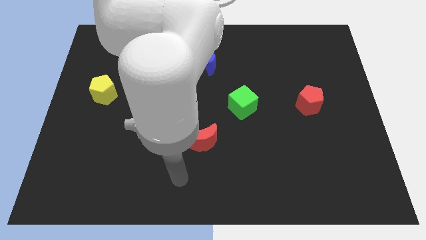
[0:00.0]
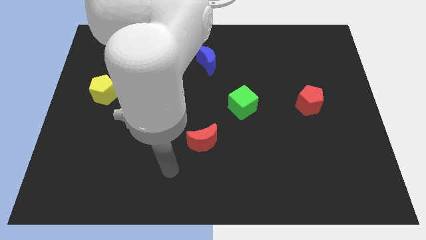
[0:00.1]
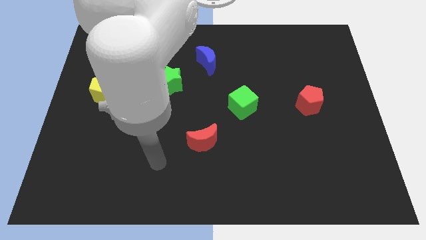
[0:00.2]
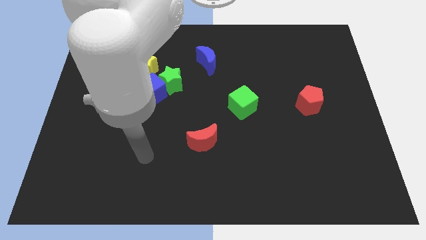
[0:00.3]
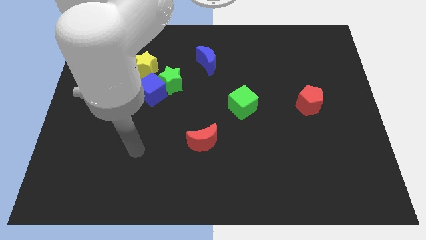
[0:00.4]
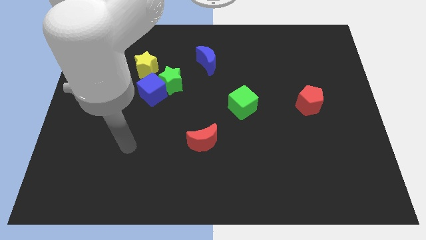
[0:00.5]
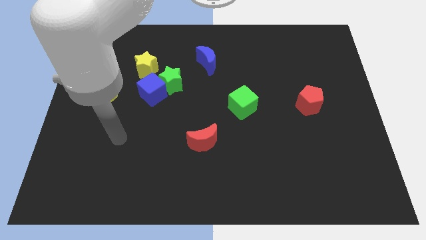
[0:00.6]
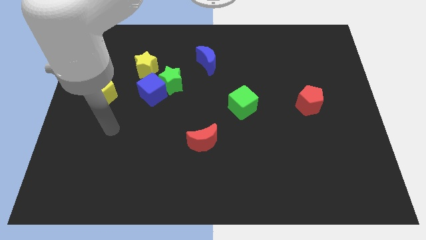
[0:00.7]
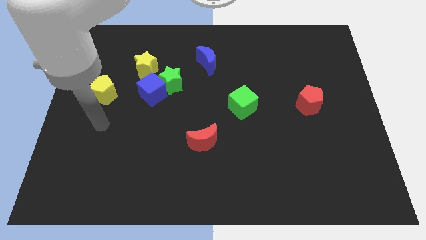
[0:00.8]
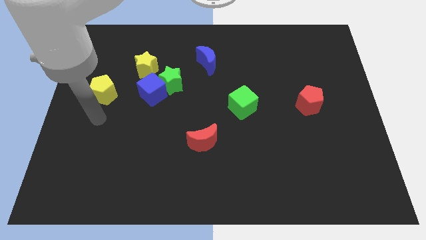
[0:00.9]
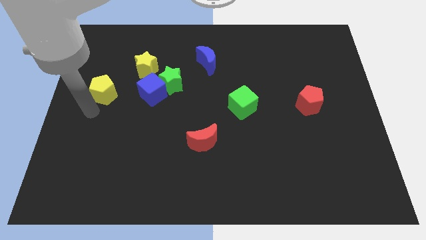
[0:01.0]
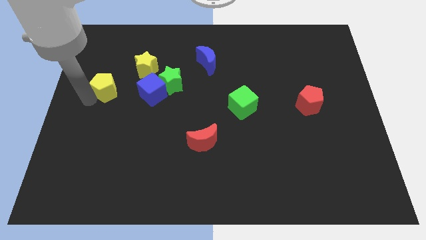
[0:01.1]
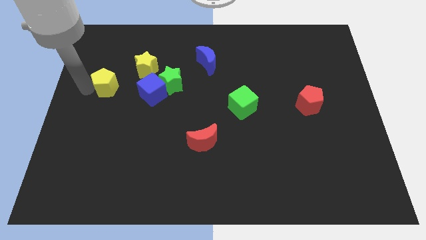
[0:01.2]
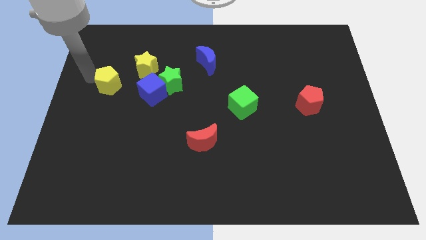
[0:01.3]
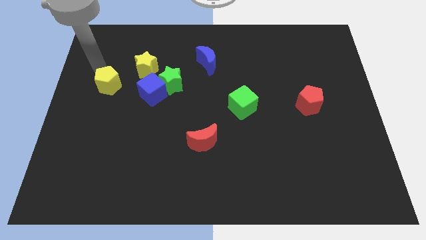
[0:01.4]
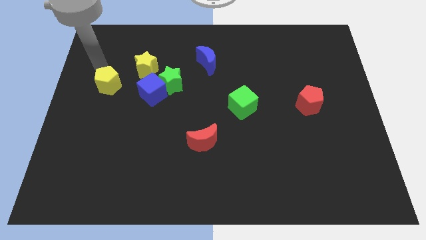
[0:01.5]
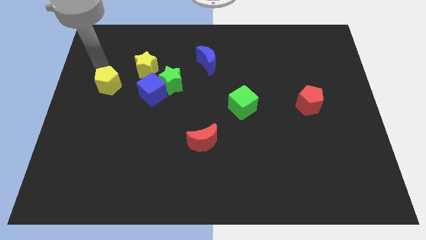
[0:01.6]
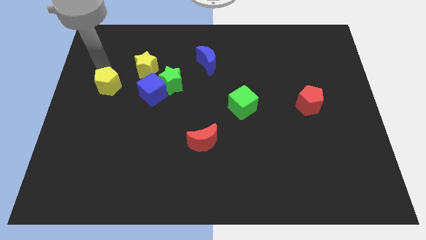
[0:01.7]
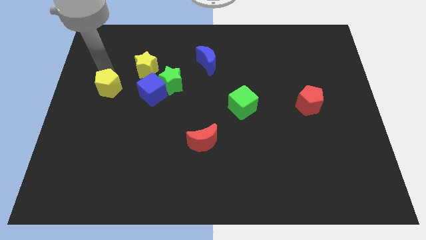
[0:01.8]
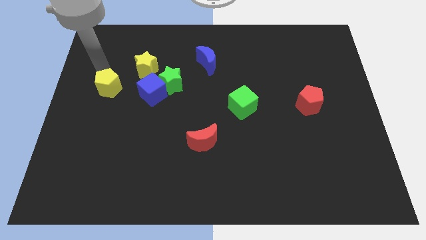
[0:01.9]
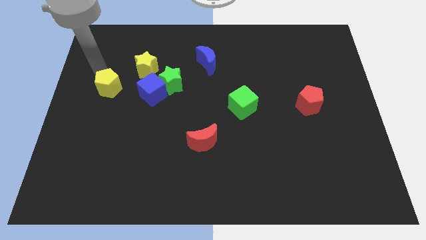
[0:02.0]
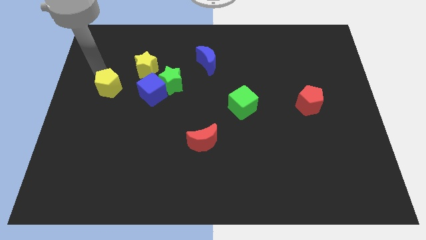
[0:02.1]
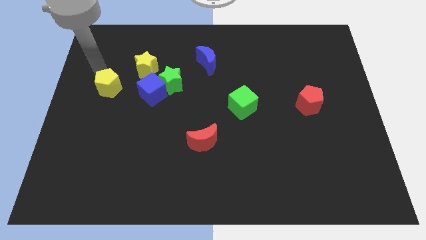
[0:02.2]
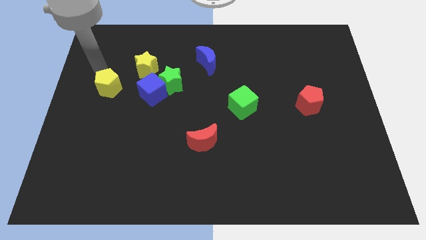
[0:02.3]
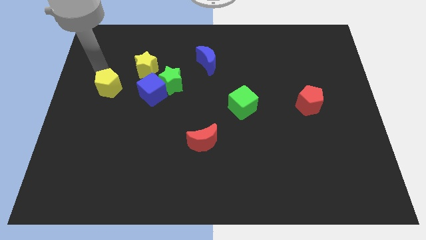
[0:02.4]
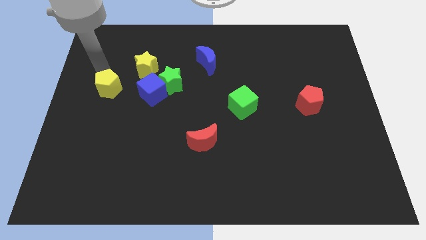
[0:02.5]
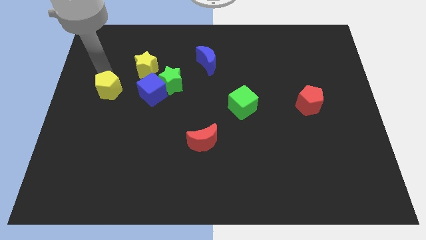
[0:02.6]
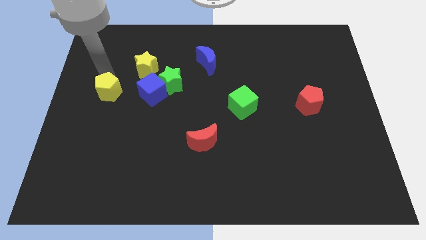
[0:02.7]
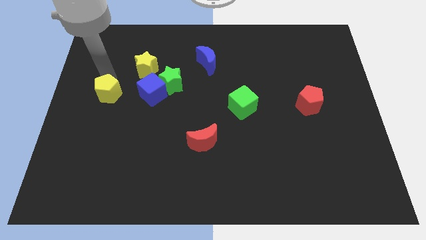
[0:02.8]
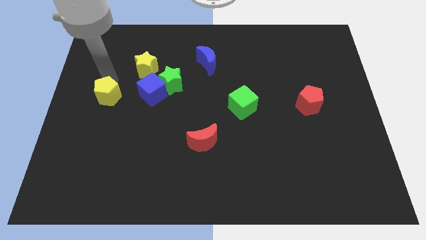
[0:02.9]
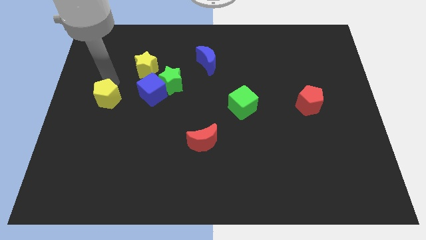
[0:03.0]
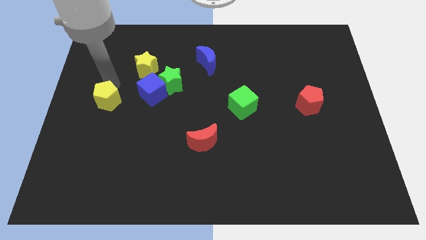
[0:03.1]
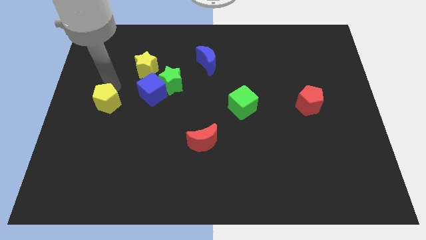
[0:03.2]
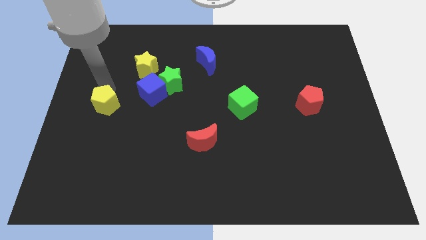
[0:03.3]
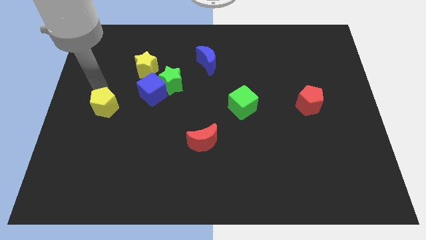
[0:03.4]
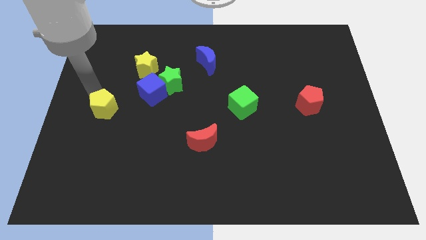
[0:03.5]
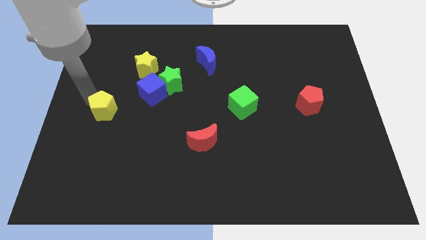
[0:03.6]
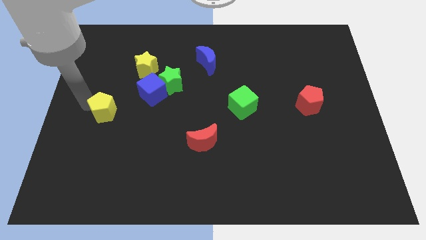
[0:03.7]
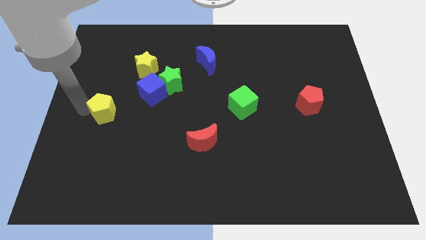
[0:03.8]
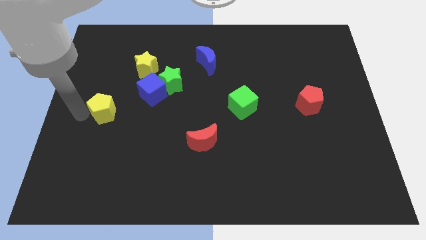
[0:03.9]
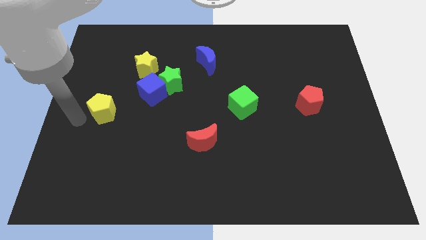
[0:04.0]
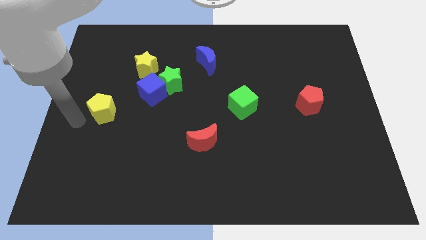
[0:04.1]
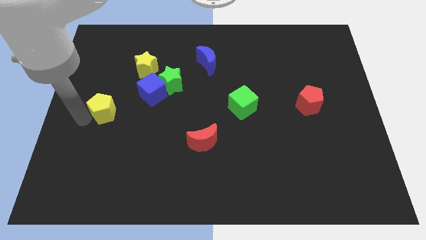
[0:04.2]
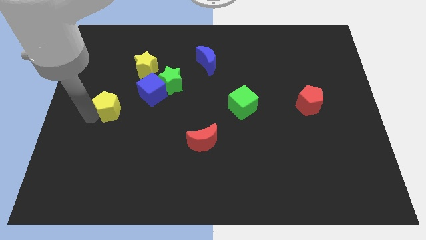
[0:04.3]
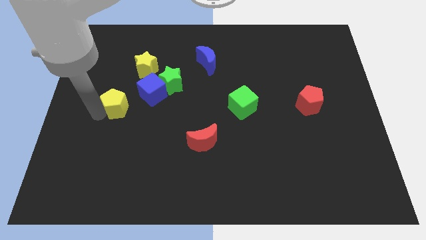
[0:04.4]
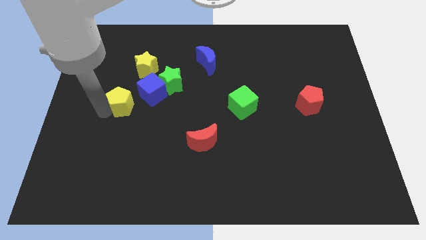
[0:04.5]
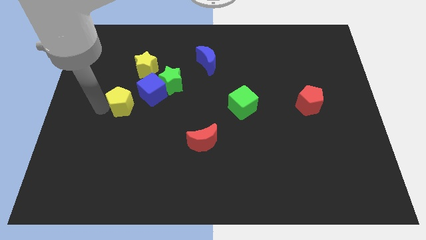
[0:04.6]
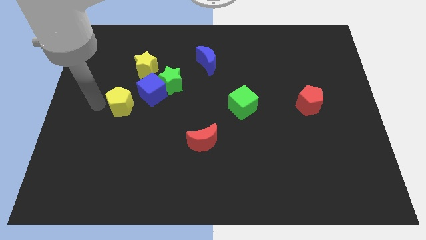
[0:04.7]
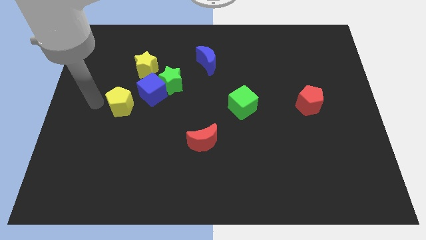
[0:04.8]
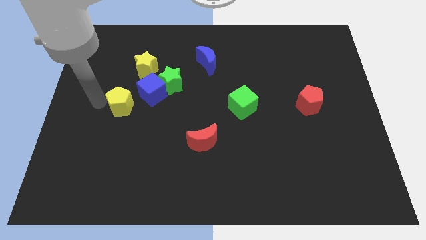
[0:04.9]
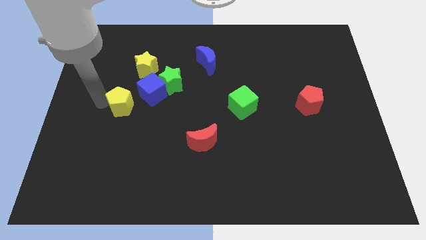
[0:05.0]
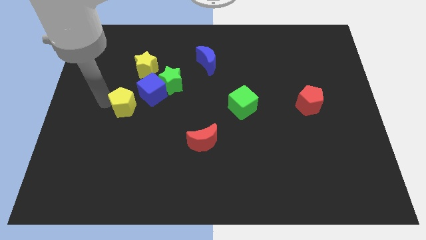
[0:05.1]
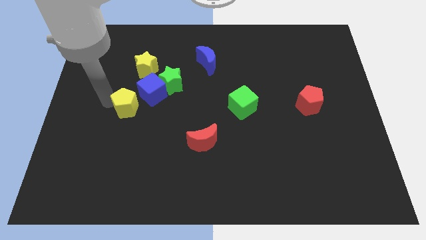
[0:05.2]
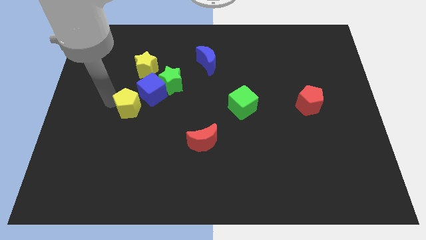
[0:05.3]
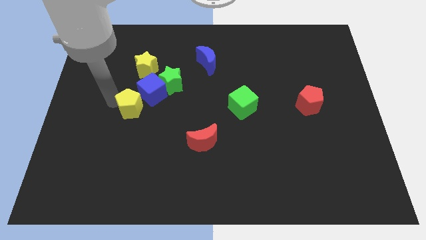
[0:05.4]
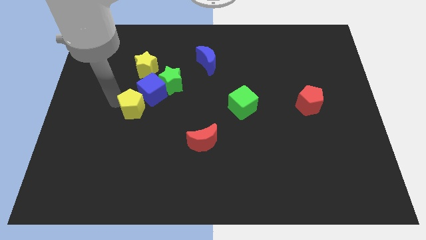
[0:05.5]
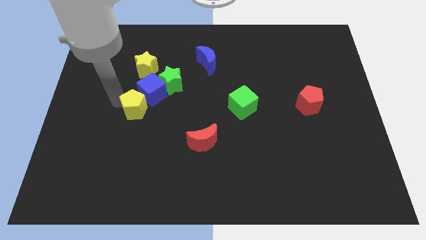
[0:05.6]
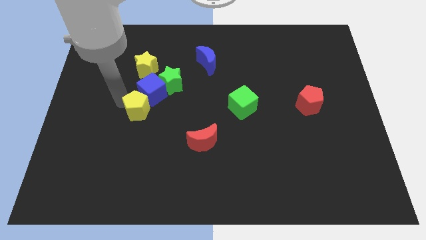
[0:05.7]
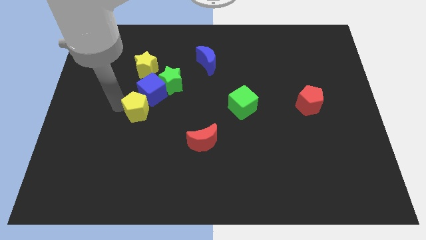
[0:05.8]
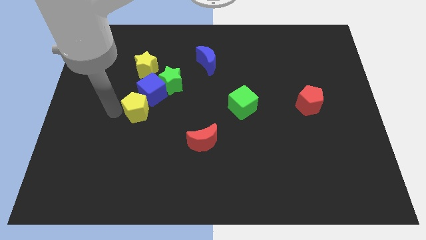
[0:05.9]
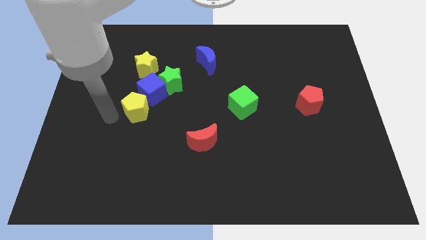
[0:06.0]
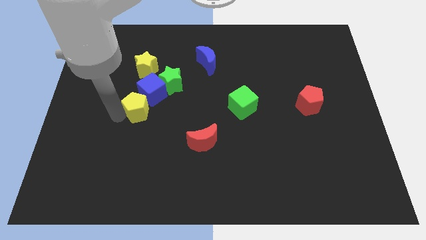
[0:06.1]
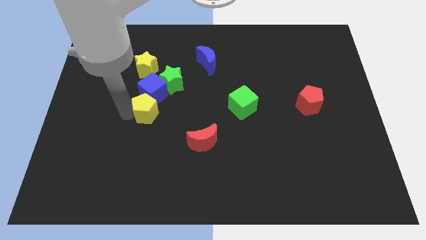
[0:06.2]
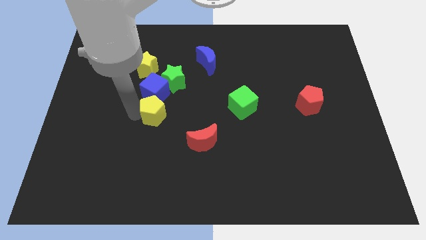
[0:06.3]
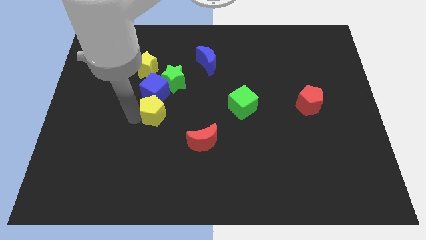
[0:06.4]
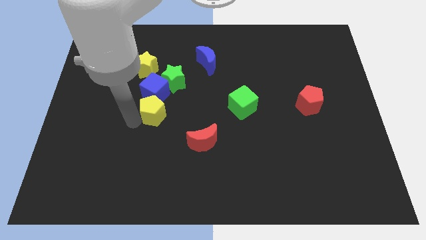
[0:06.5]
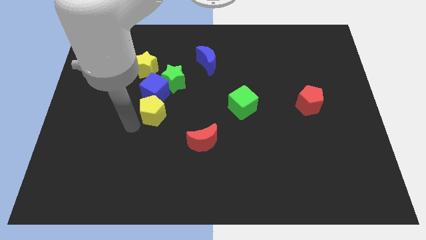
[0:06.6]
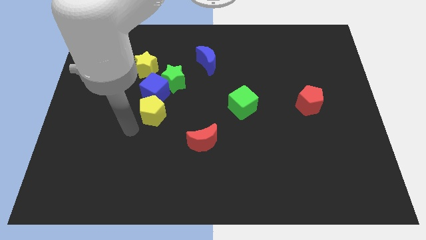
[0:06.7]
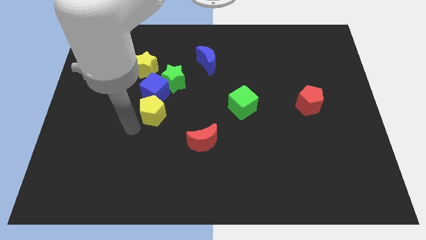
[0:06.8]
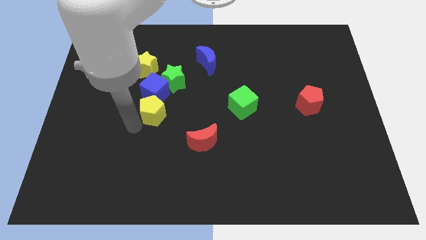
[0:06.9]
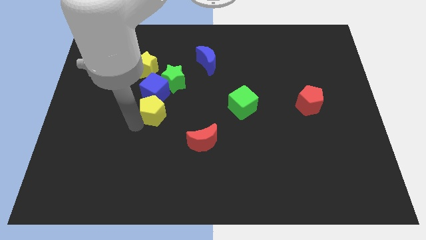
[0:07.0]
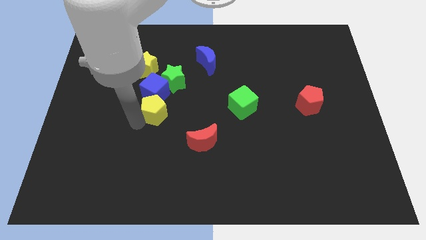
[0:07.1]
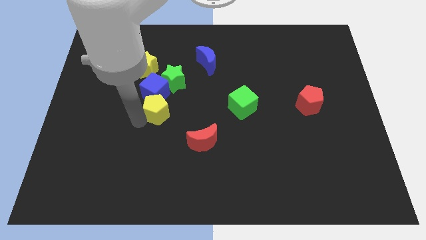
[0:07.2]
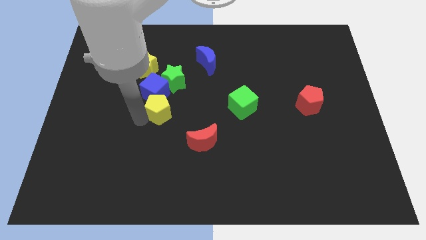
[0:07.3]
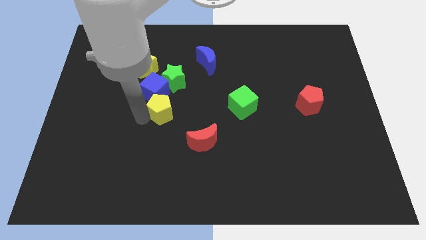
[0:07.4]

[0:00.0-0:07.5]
move the yellow pentagon to the middle
